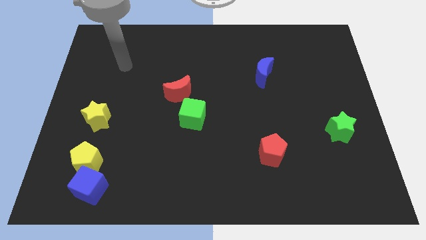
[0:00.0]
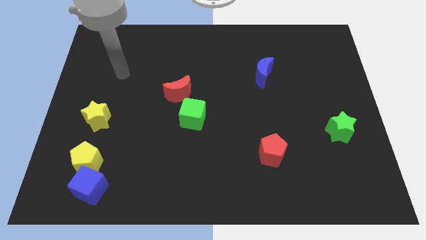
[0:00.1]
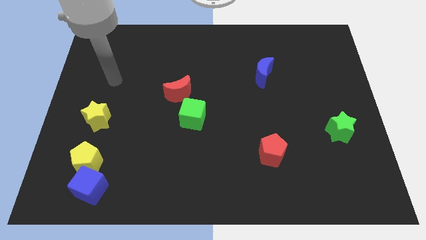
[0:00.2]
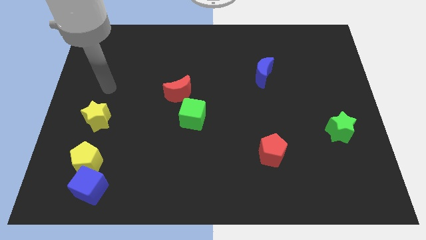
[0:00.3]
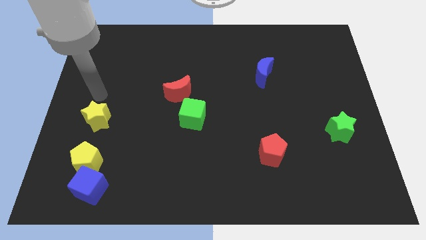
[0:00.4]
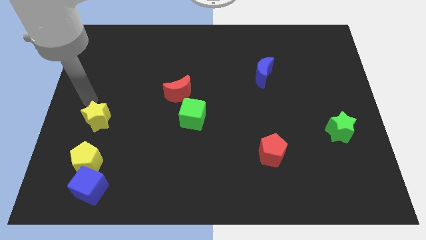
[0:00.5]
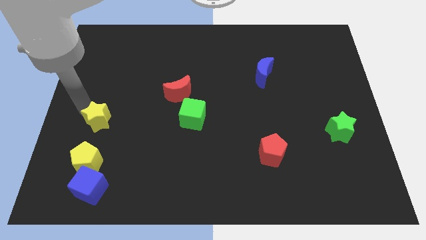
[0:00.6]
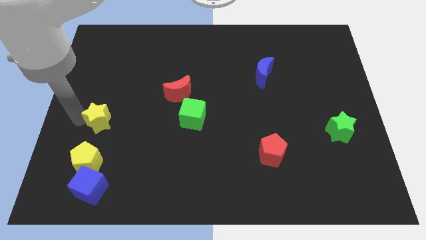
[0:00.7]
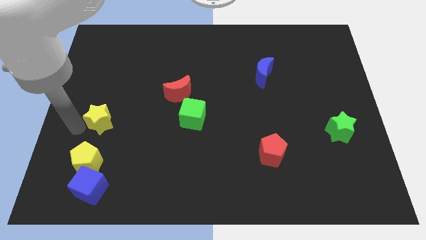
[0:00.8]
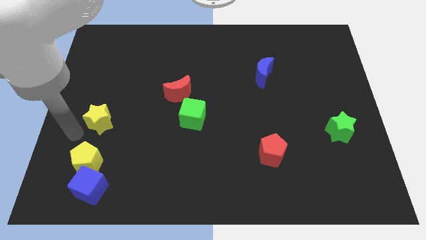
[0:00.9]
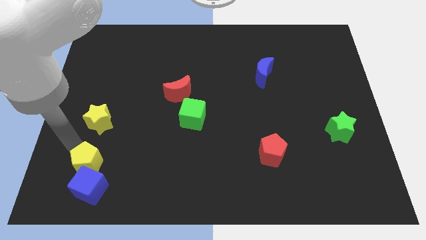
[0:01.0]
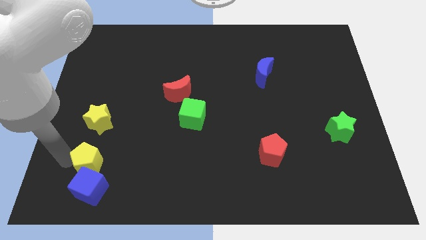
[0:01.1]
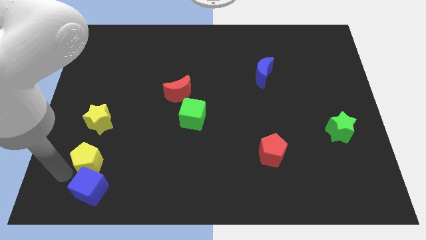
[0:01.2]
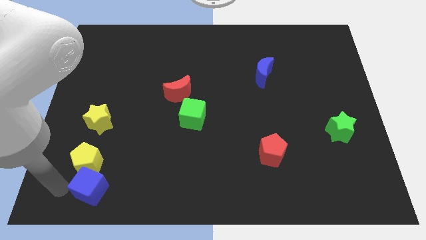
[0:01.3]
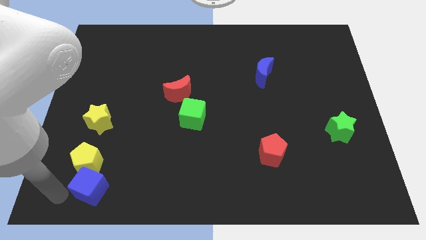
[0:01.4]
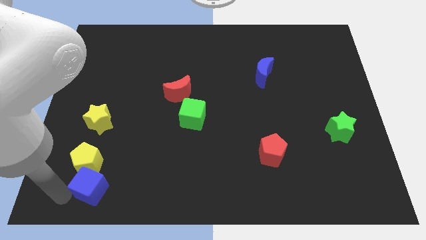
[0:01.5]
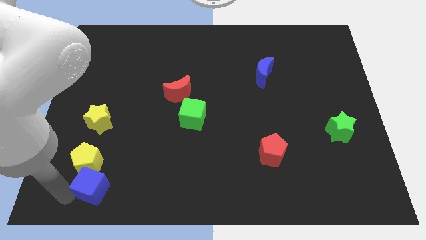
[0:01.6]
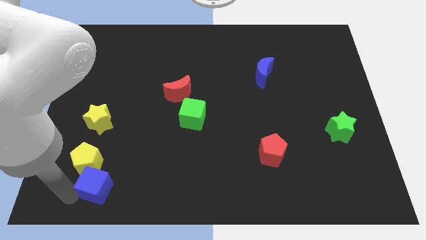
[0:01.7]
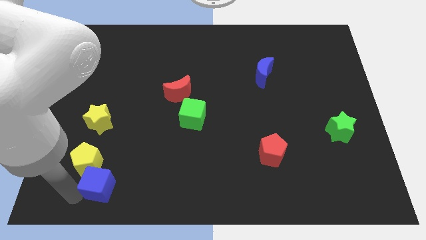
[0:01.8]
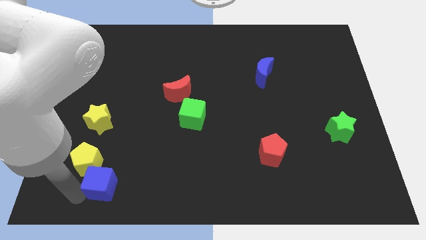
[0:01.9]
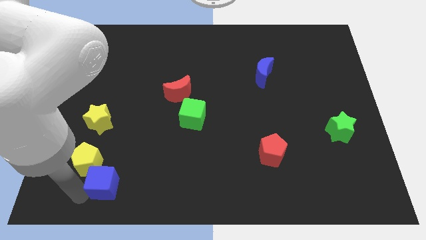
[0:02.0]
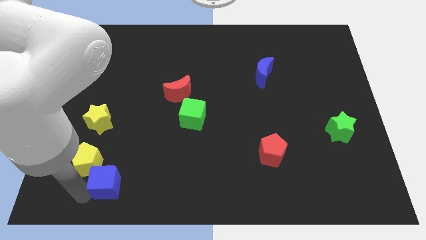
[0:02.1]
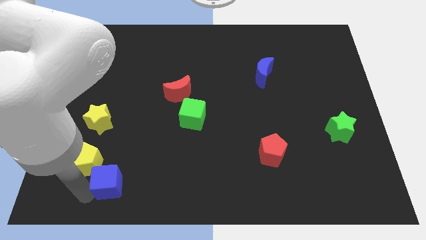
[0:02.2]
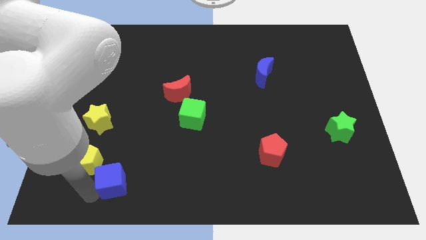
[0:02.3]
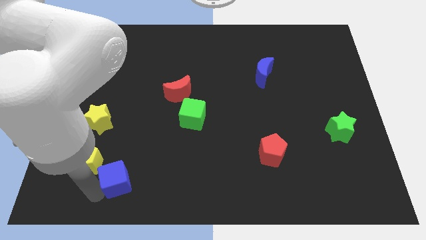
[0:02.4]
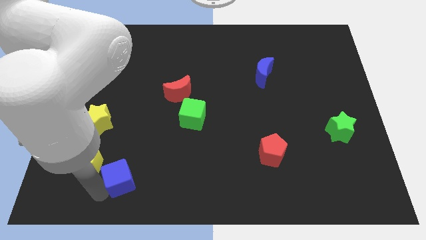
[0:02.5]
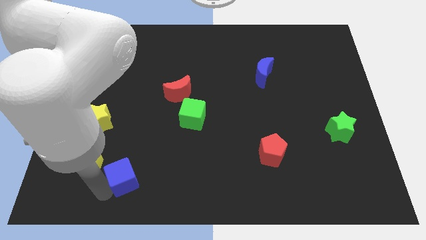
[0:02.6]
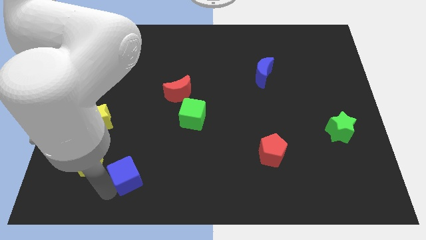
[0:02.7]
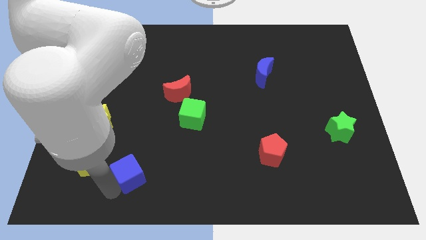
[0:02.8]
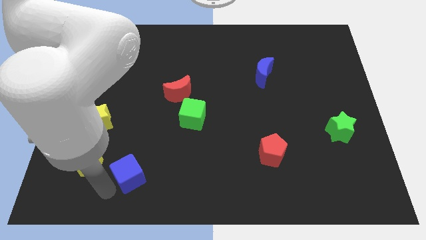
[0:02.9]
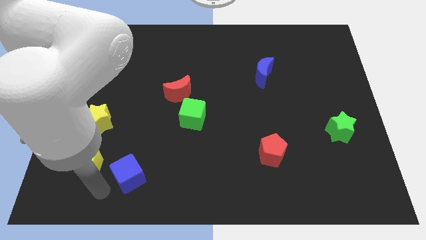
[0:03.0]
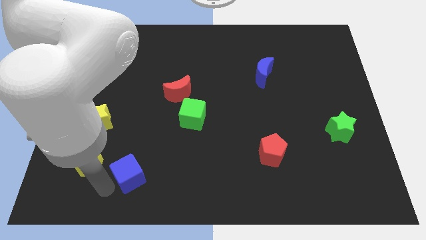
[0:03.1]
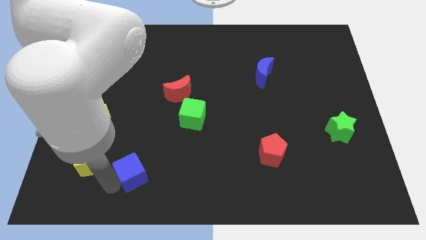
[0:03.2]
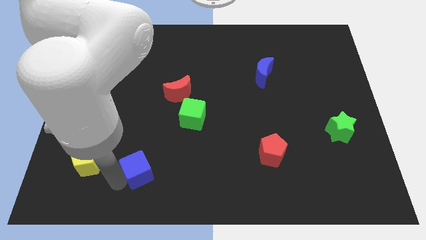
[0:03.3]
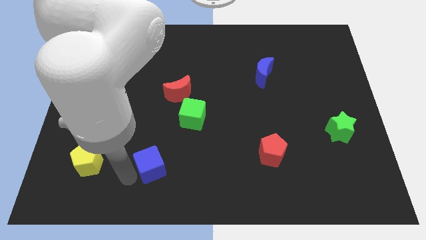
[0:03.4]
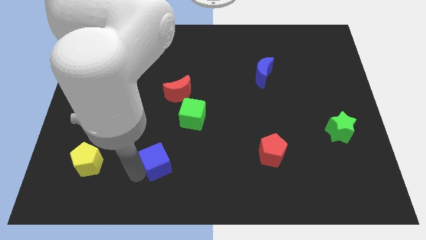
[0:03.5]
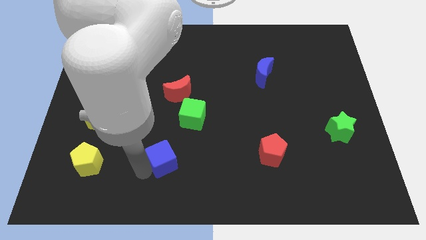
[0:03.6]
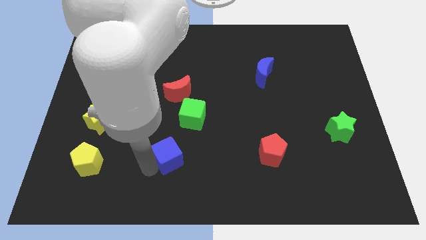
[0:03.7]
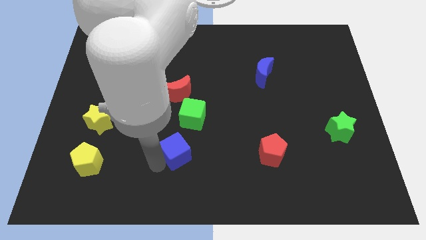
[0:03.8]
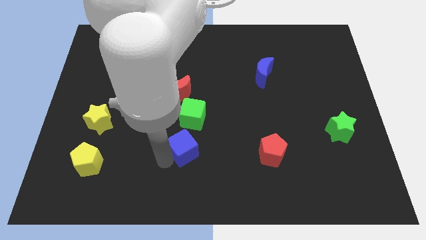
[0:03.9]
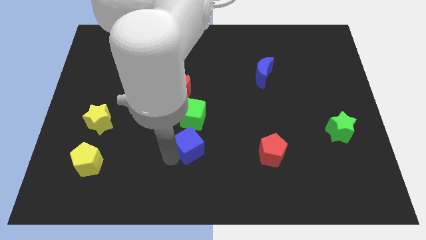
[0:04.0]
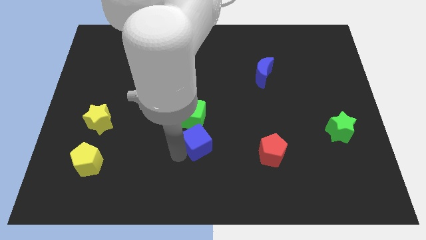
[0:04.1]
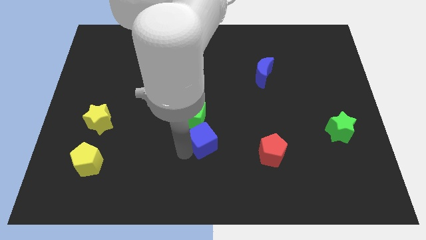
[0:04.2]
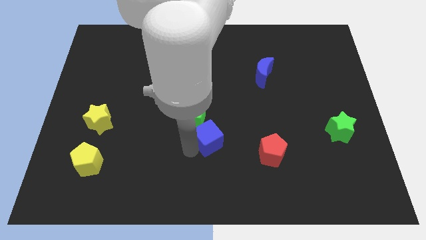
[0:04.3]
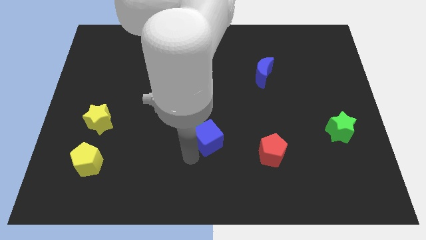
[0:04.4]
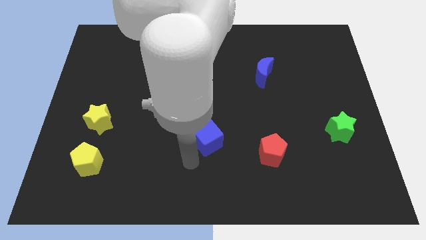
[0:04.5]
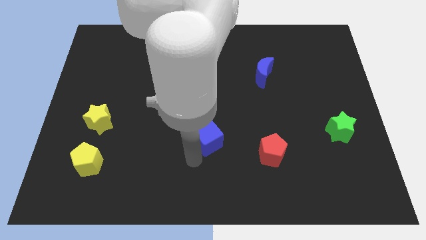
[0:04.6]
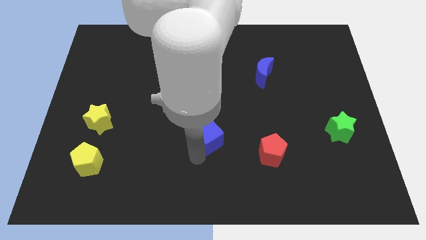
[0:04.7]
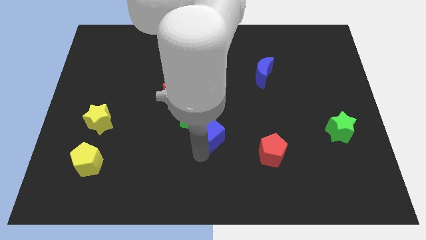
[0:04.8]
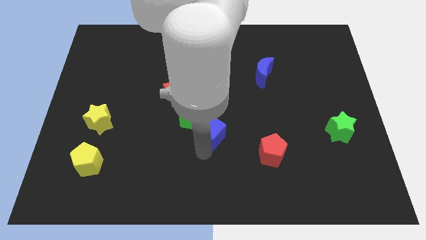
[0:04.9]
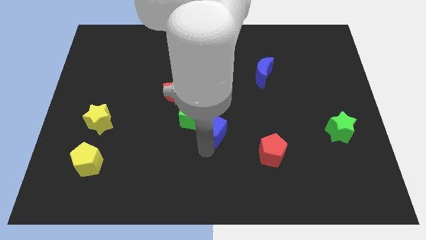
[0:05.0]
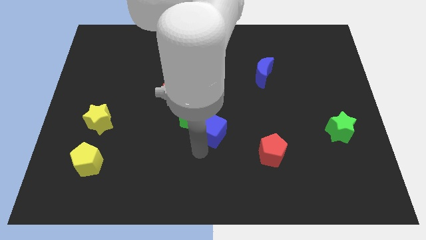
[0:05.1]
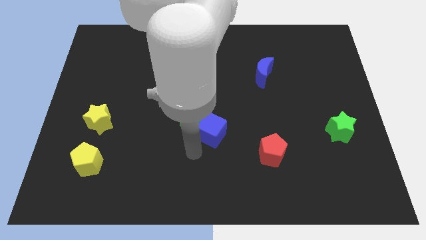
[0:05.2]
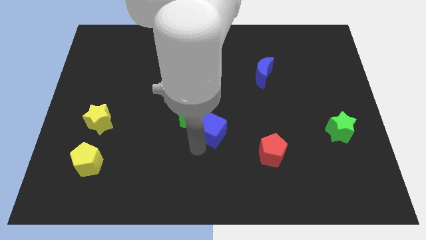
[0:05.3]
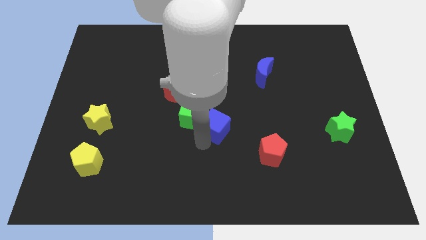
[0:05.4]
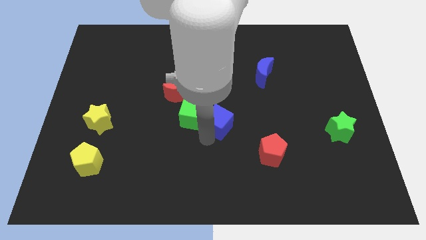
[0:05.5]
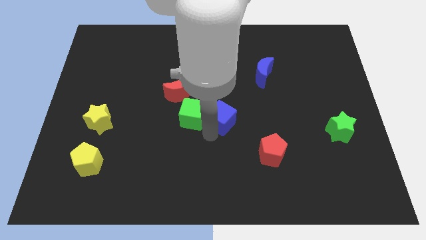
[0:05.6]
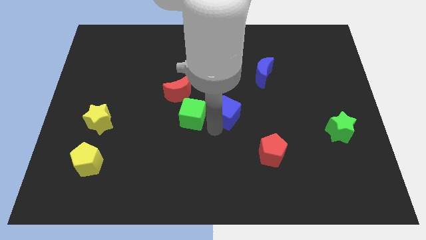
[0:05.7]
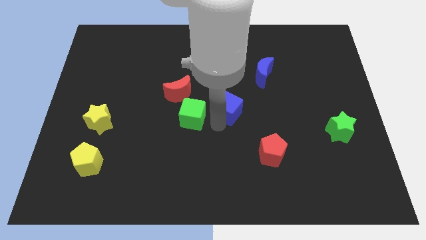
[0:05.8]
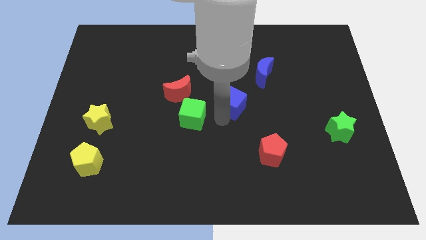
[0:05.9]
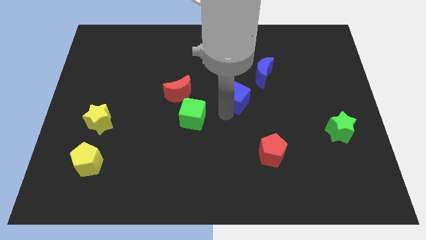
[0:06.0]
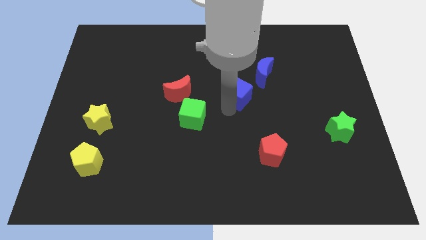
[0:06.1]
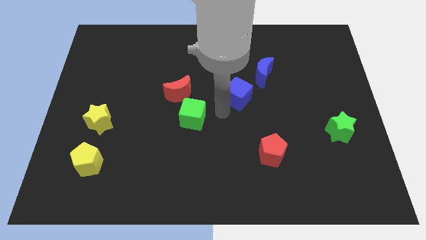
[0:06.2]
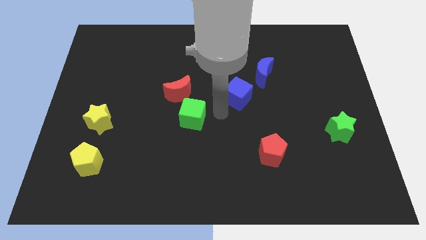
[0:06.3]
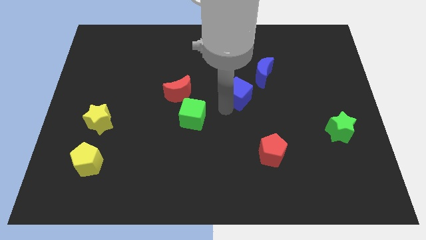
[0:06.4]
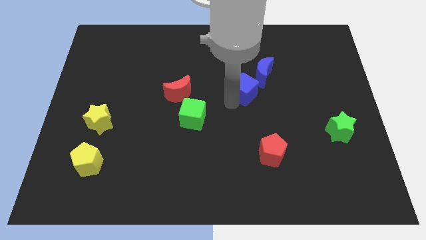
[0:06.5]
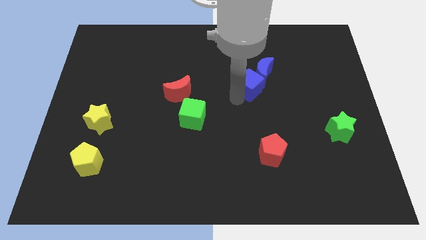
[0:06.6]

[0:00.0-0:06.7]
slide the blue cube towards the blue moon
